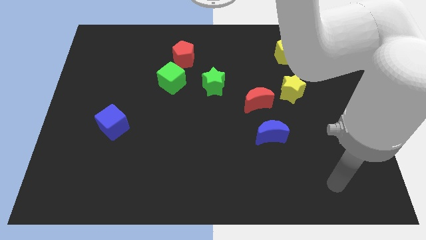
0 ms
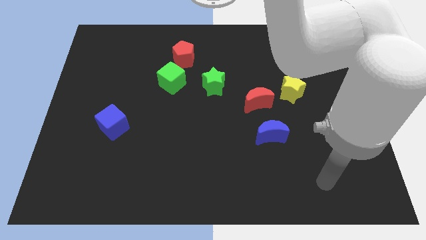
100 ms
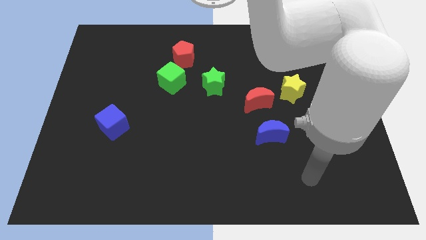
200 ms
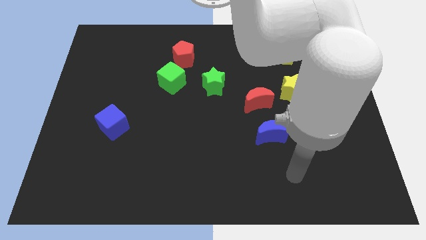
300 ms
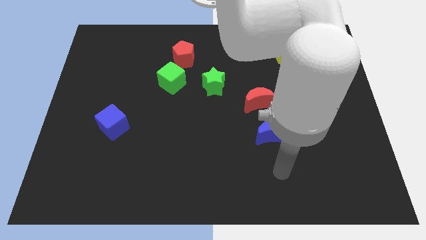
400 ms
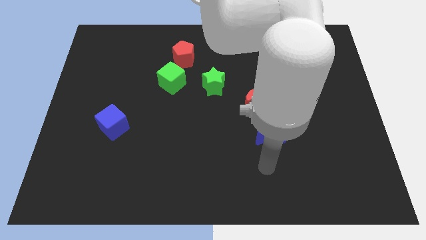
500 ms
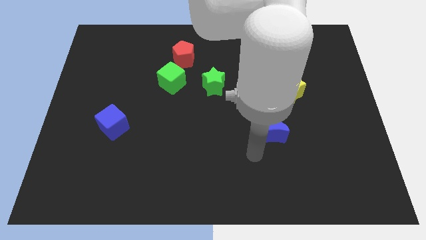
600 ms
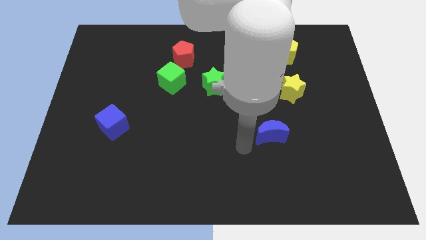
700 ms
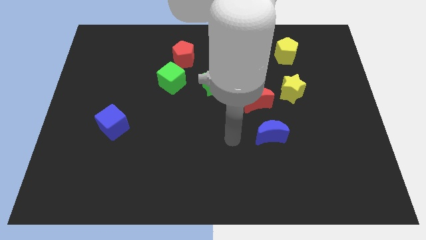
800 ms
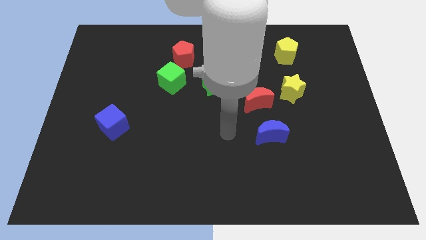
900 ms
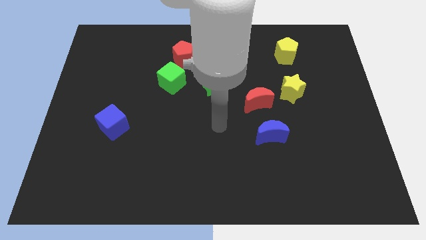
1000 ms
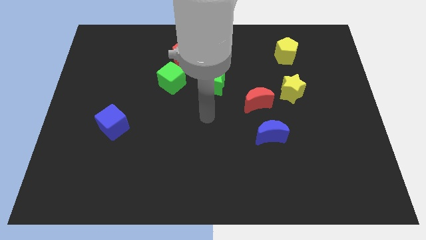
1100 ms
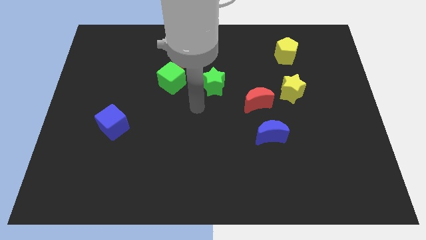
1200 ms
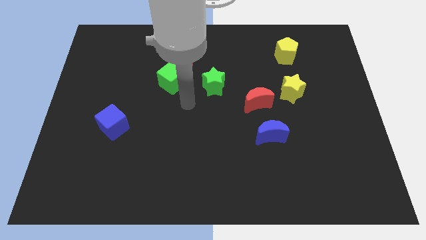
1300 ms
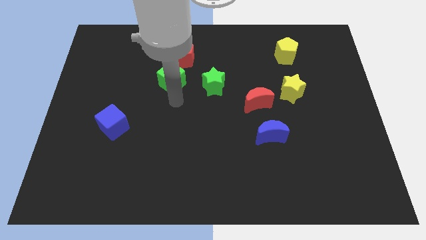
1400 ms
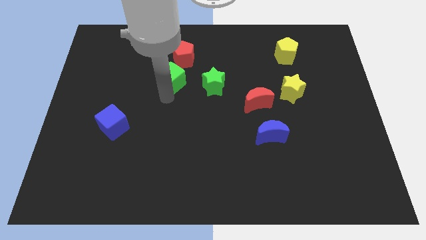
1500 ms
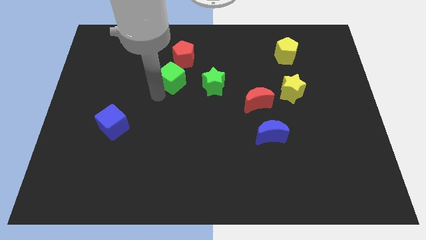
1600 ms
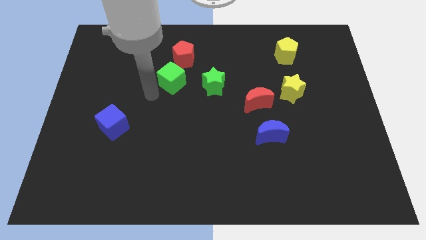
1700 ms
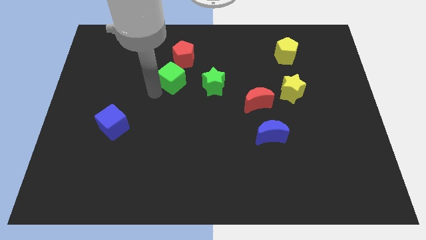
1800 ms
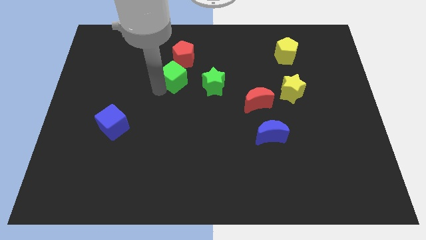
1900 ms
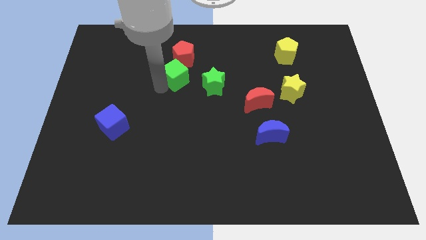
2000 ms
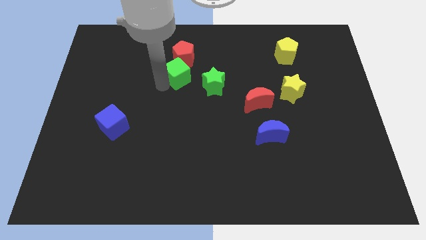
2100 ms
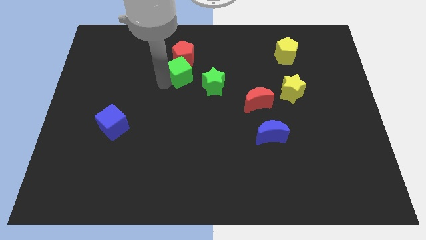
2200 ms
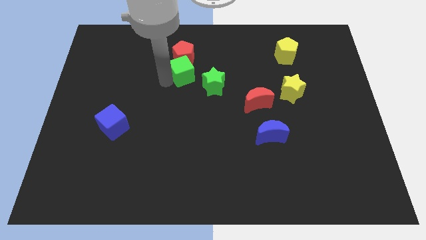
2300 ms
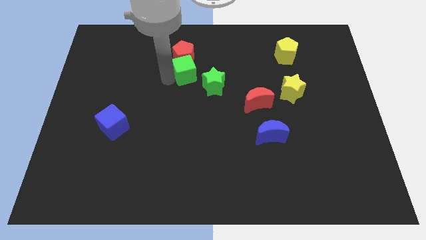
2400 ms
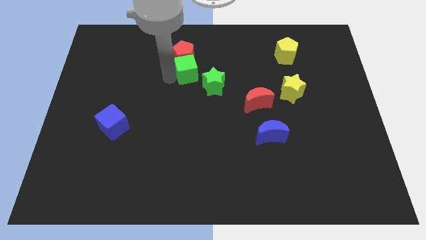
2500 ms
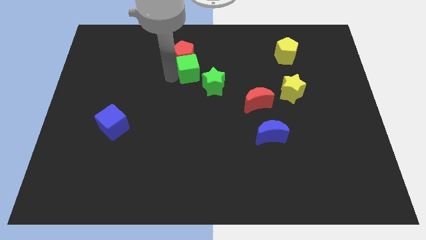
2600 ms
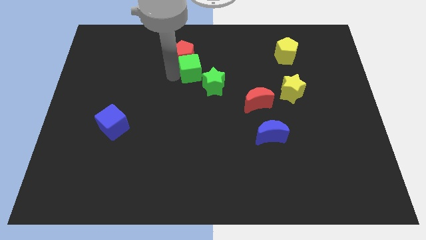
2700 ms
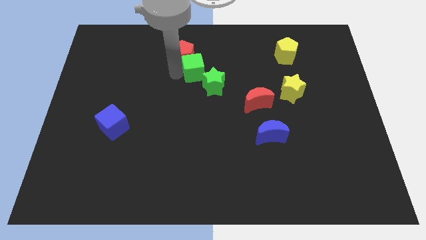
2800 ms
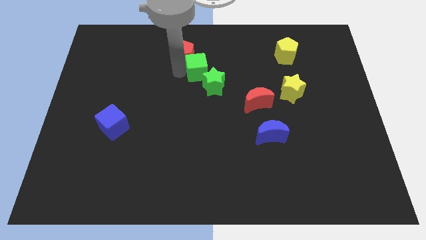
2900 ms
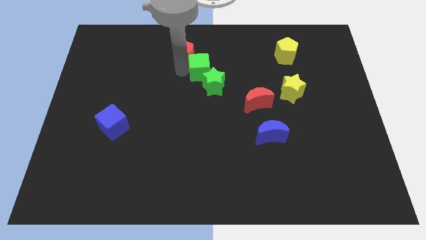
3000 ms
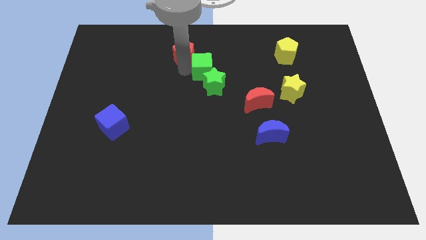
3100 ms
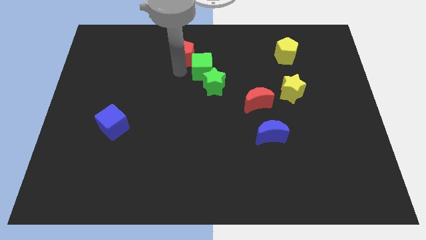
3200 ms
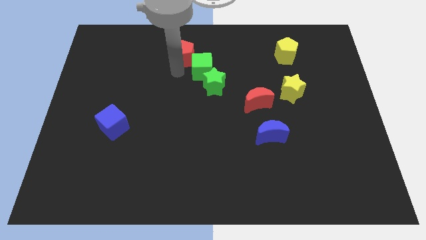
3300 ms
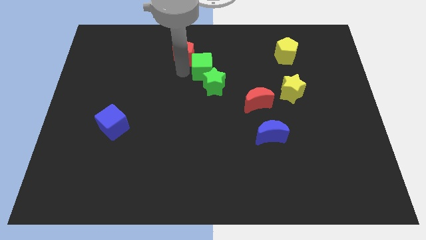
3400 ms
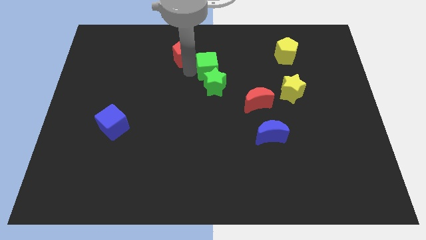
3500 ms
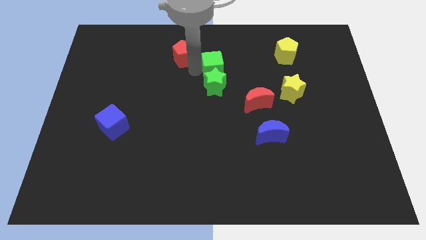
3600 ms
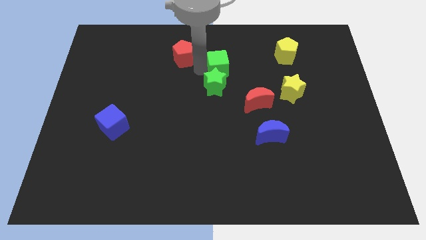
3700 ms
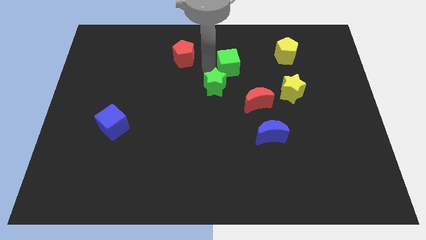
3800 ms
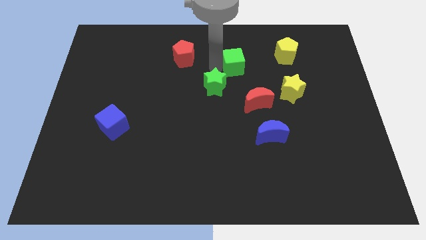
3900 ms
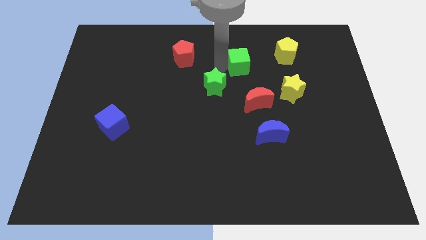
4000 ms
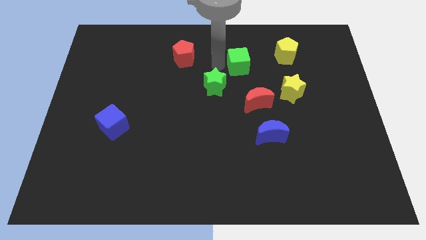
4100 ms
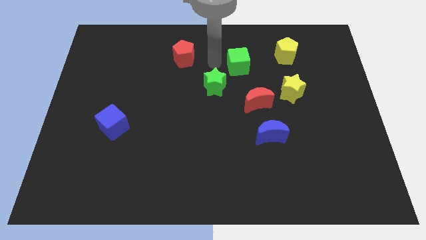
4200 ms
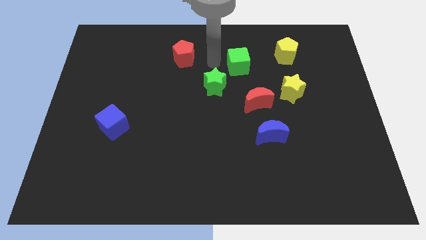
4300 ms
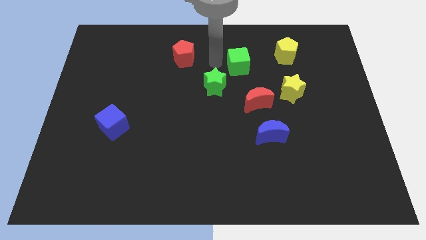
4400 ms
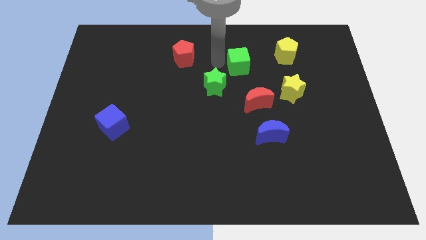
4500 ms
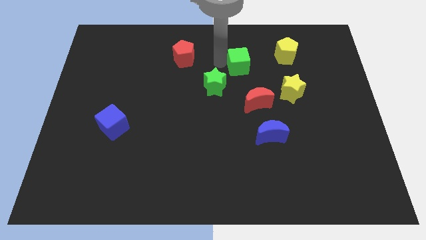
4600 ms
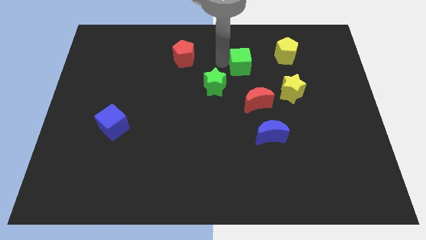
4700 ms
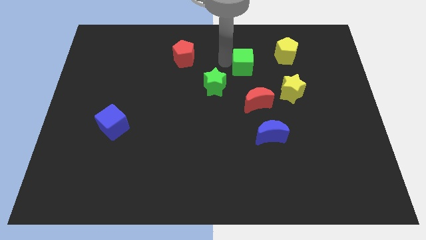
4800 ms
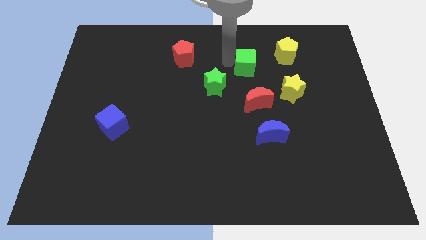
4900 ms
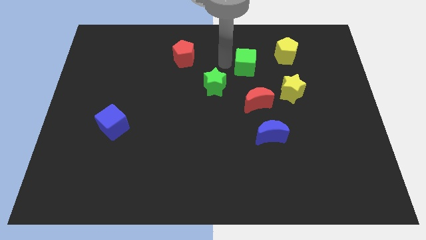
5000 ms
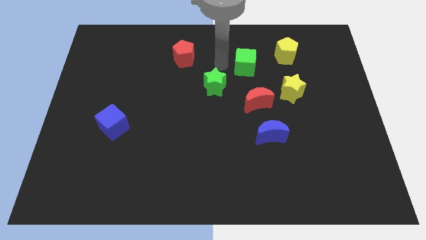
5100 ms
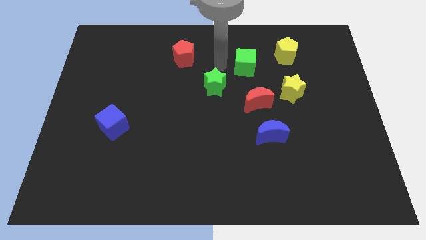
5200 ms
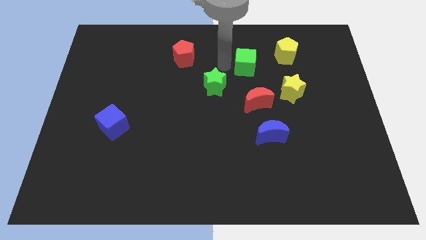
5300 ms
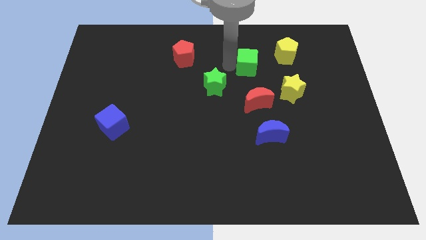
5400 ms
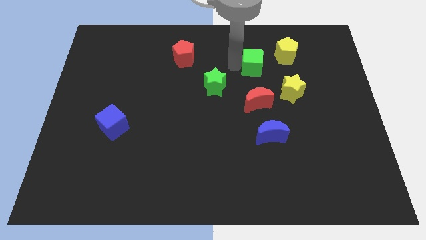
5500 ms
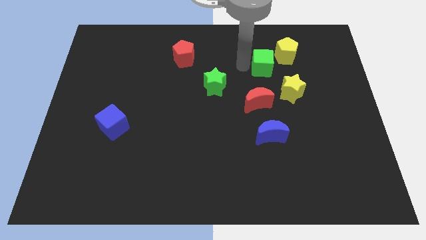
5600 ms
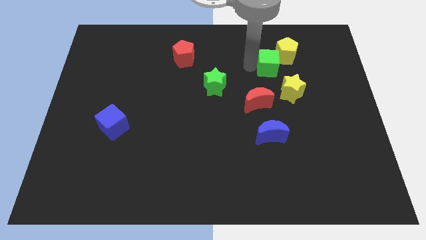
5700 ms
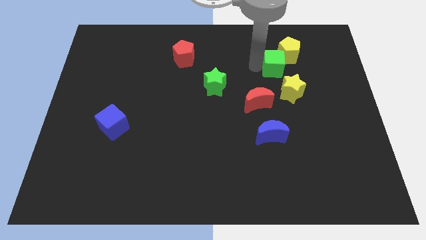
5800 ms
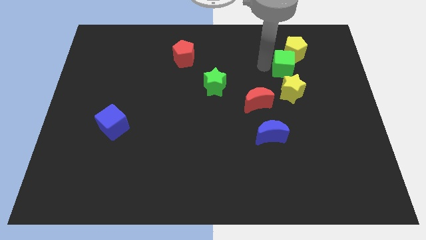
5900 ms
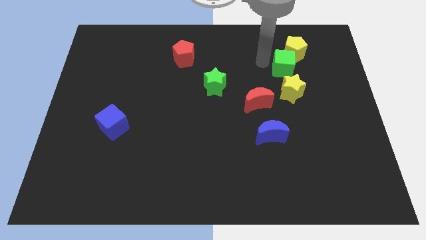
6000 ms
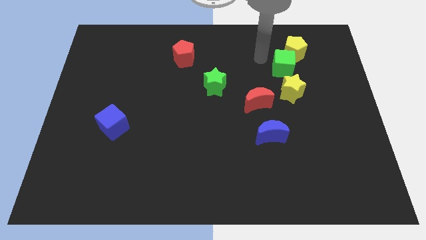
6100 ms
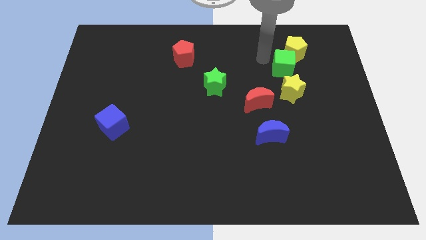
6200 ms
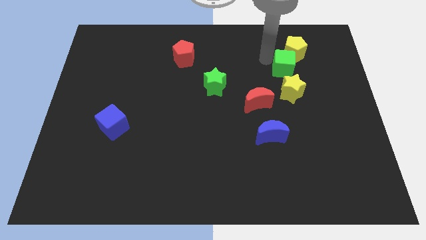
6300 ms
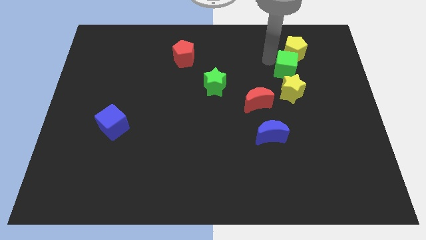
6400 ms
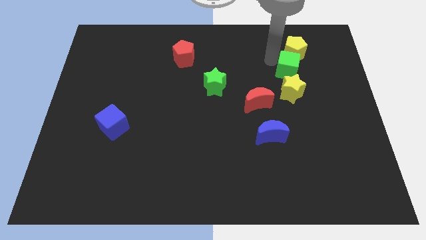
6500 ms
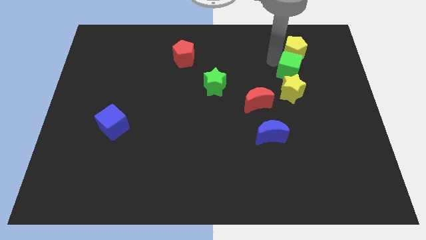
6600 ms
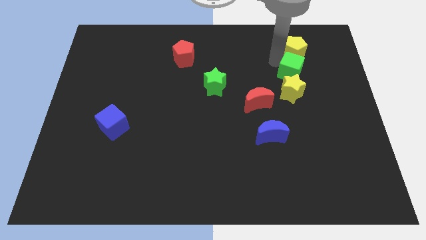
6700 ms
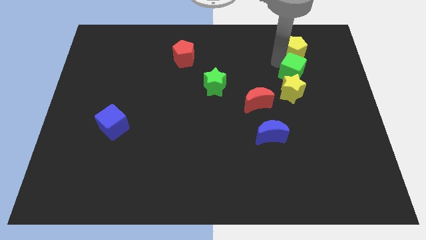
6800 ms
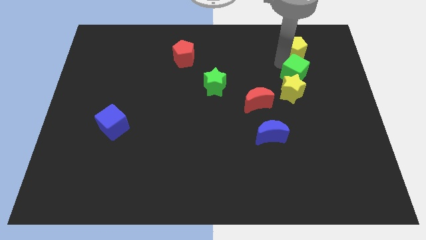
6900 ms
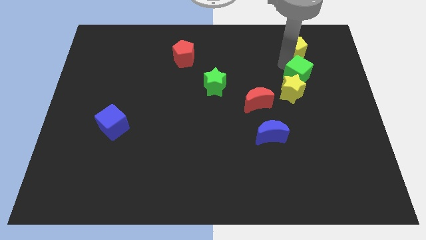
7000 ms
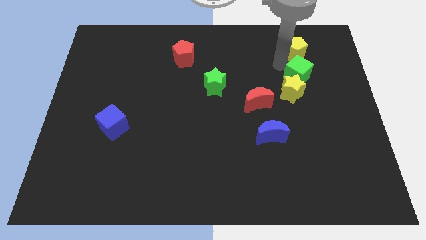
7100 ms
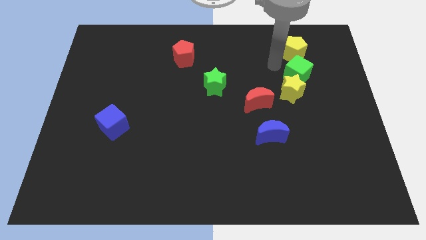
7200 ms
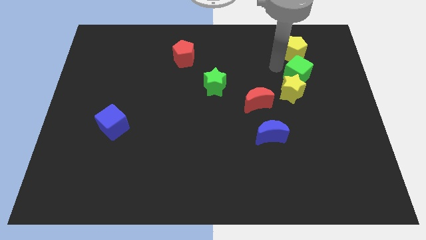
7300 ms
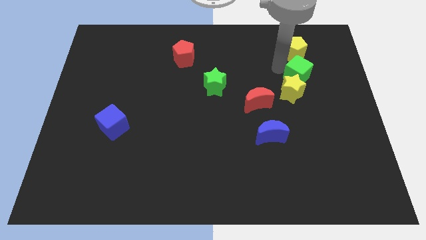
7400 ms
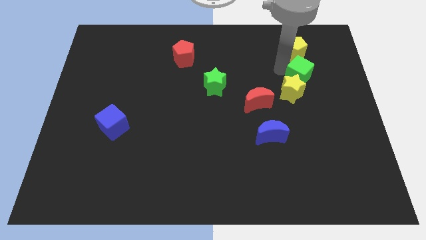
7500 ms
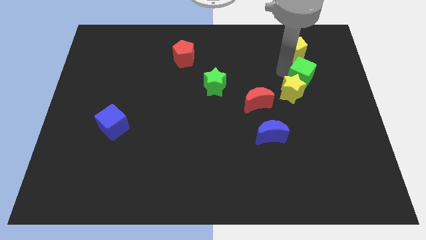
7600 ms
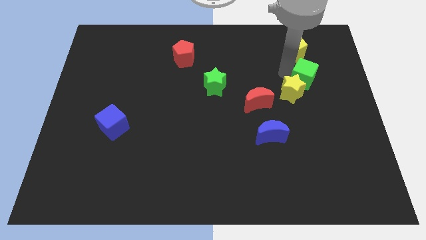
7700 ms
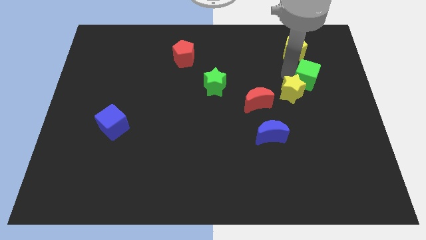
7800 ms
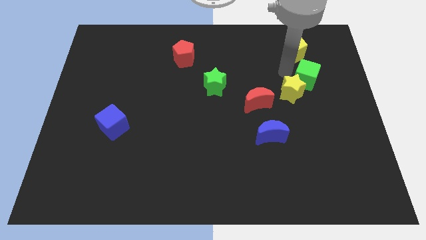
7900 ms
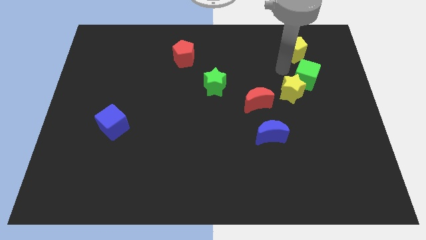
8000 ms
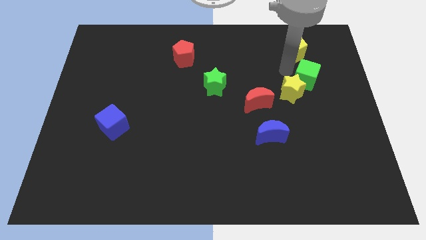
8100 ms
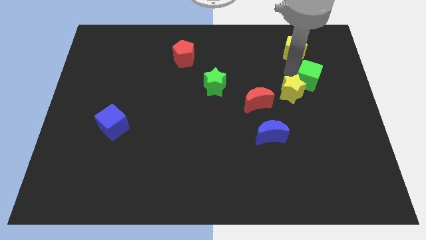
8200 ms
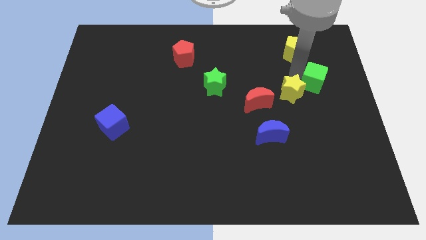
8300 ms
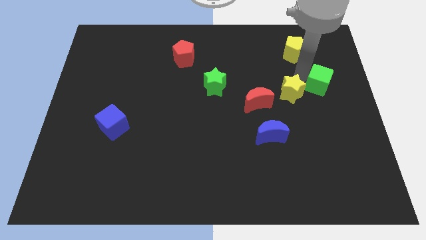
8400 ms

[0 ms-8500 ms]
put the green cube to the center right
